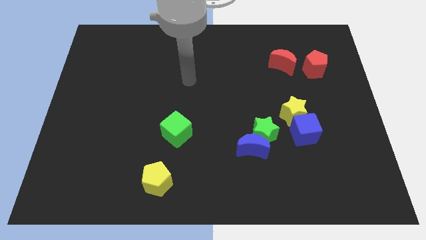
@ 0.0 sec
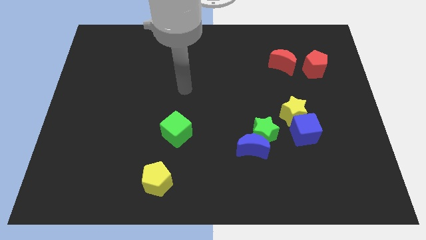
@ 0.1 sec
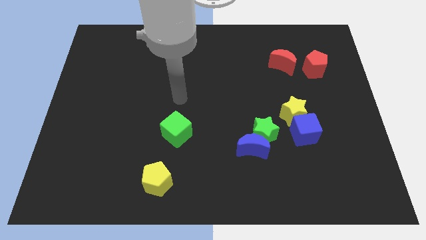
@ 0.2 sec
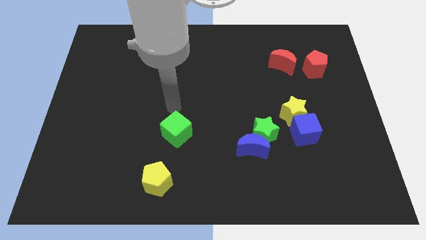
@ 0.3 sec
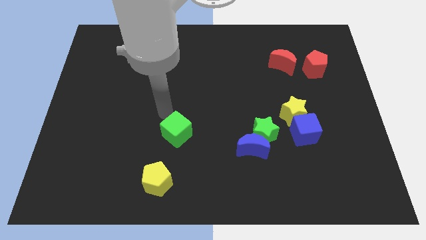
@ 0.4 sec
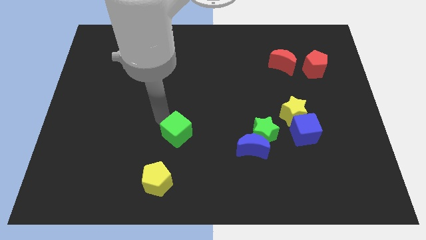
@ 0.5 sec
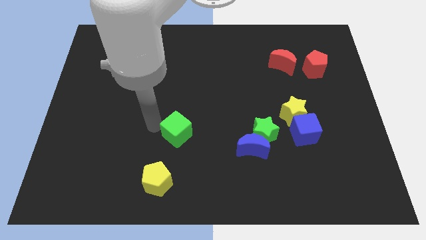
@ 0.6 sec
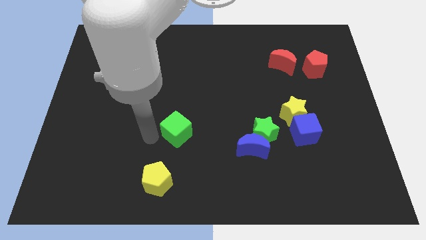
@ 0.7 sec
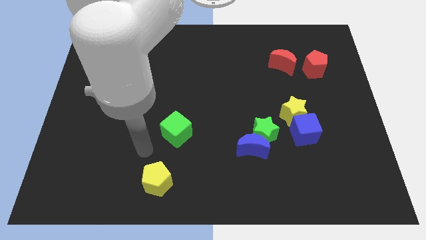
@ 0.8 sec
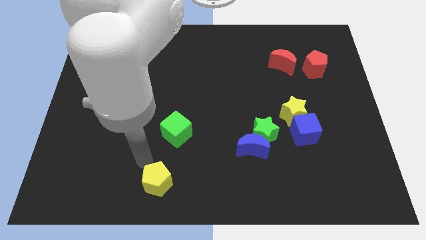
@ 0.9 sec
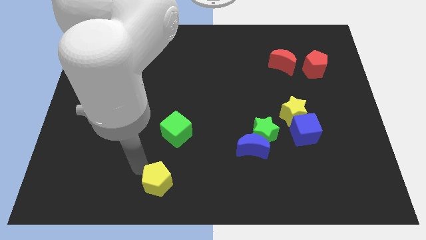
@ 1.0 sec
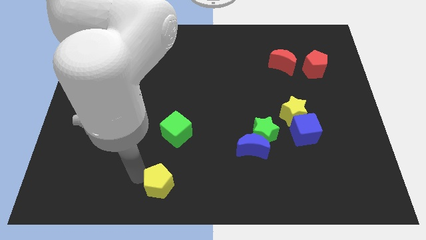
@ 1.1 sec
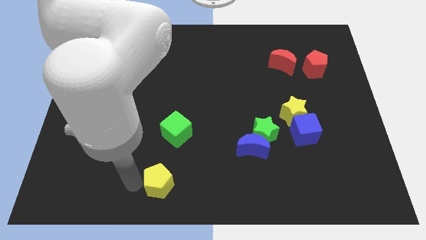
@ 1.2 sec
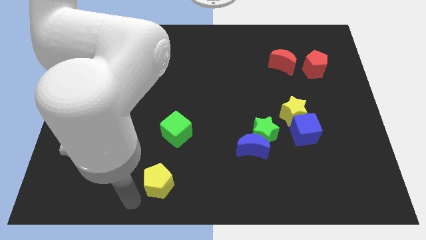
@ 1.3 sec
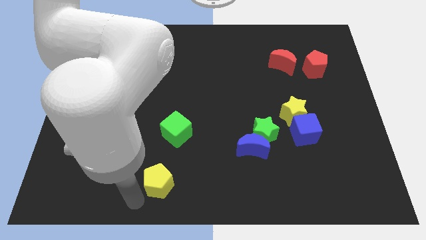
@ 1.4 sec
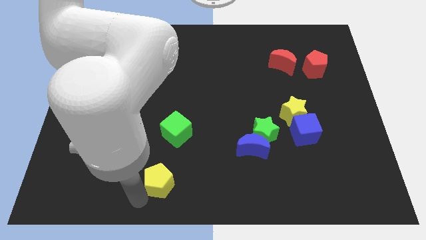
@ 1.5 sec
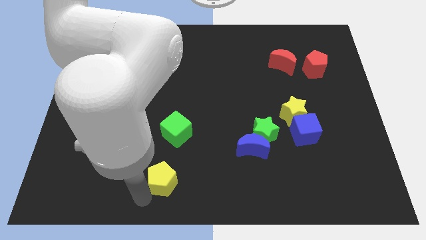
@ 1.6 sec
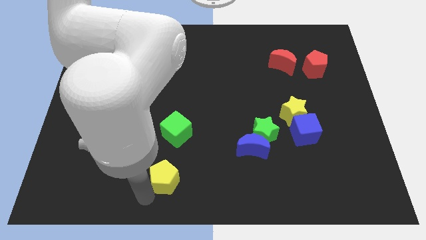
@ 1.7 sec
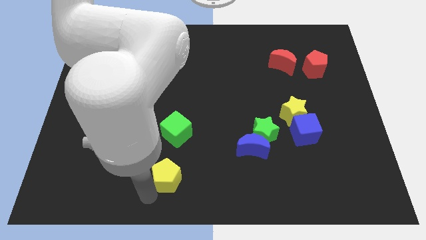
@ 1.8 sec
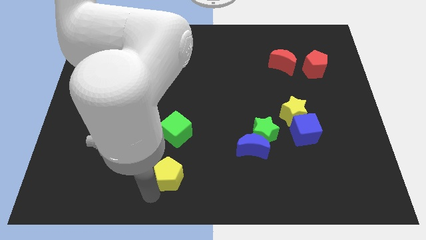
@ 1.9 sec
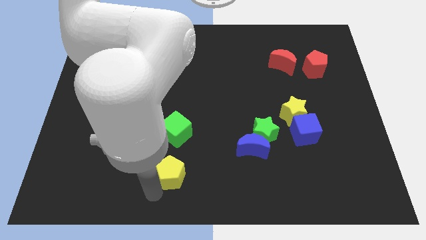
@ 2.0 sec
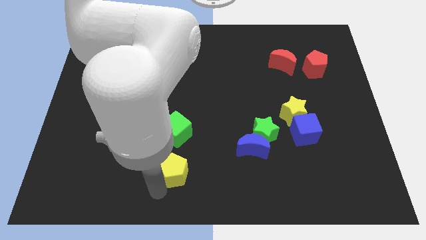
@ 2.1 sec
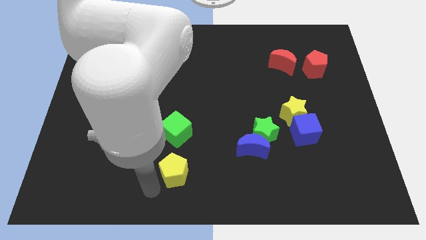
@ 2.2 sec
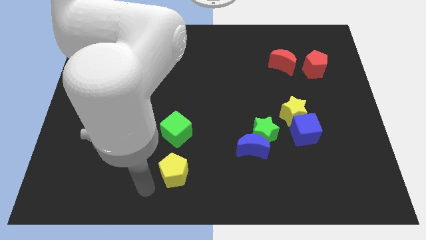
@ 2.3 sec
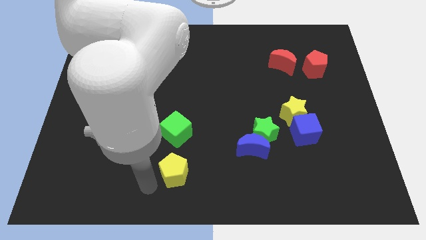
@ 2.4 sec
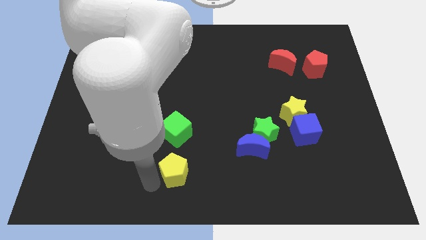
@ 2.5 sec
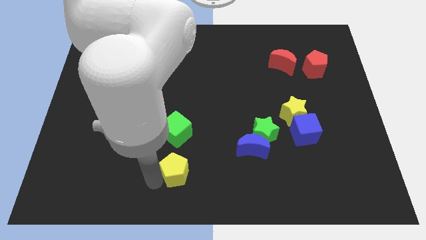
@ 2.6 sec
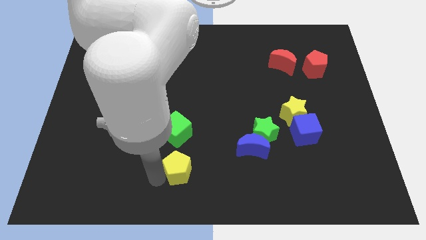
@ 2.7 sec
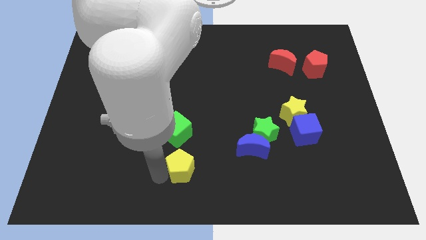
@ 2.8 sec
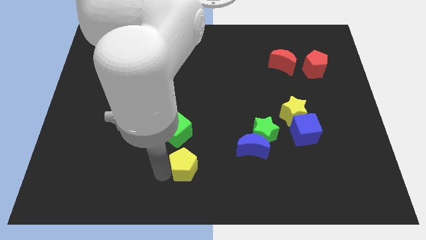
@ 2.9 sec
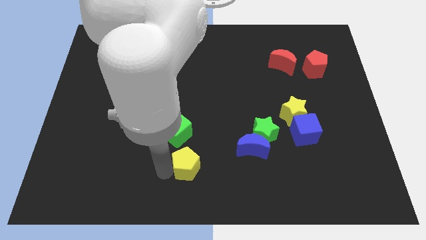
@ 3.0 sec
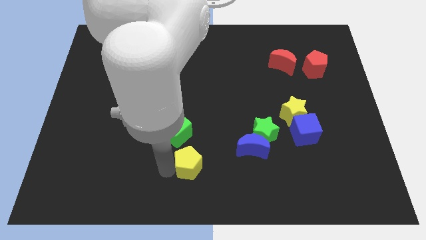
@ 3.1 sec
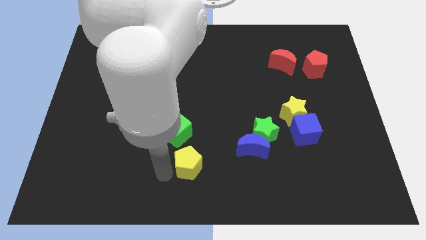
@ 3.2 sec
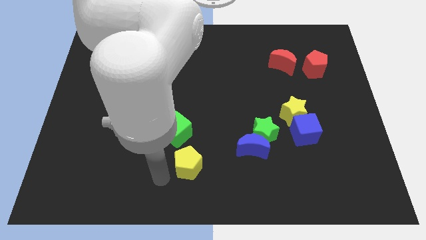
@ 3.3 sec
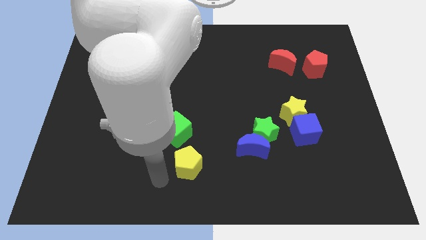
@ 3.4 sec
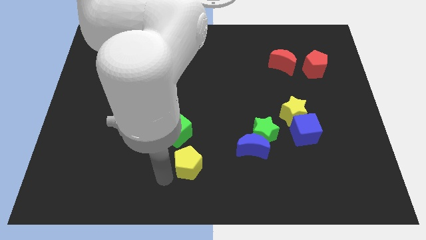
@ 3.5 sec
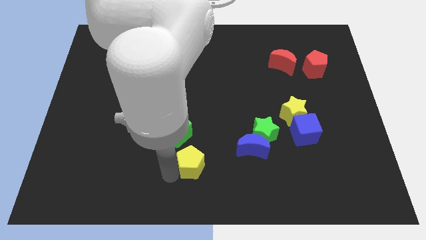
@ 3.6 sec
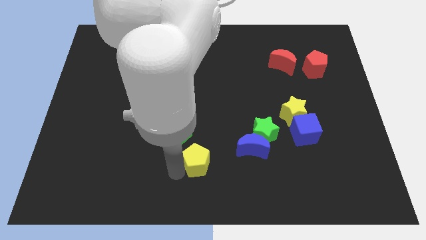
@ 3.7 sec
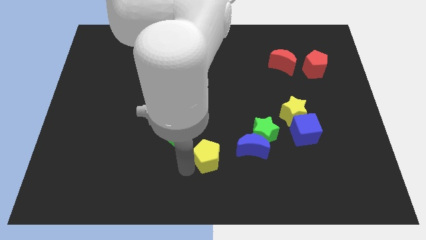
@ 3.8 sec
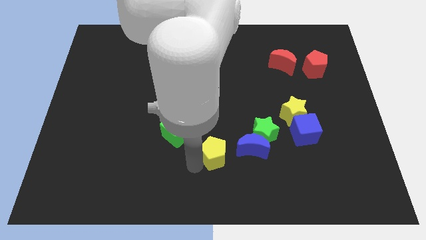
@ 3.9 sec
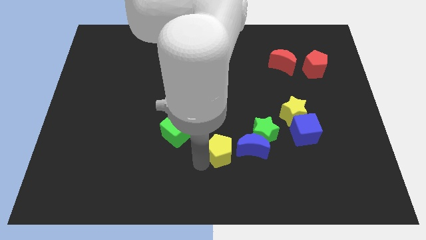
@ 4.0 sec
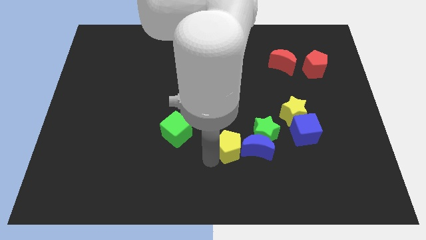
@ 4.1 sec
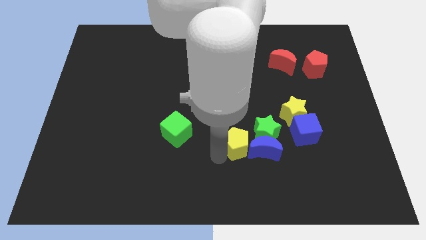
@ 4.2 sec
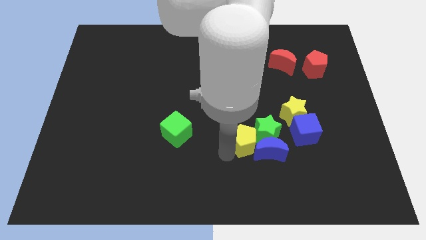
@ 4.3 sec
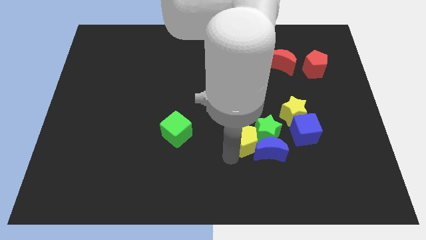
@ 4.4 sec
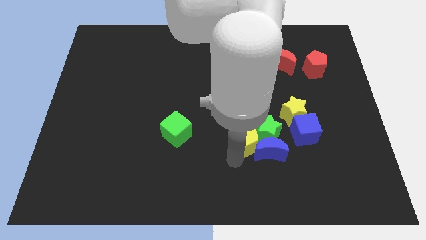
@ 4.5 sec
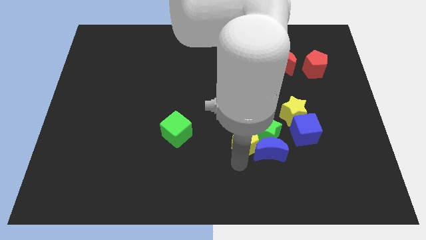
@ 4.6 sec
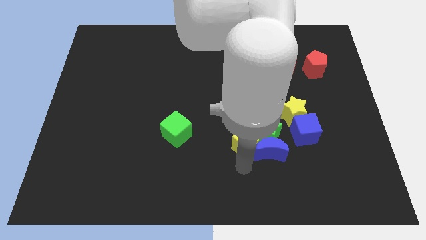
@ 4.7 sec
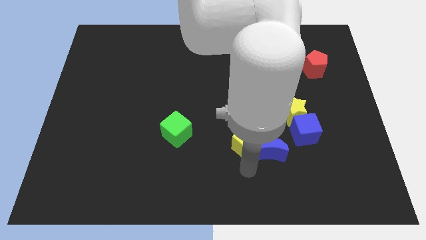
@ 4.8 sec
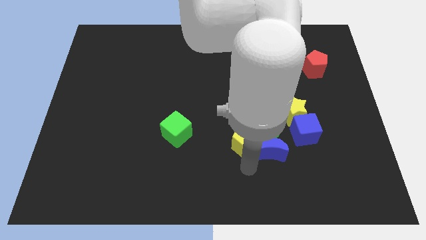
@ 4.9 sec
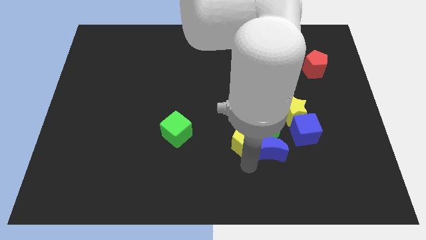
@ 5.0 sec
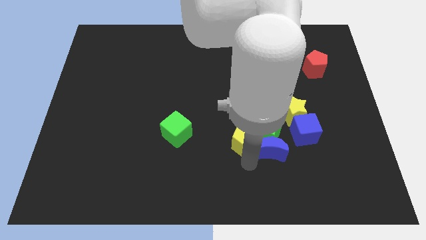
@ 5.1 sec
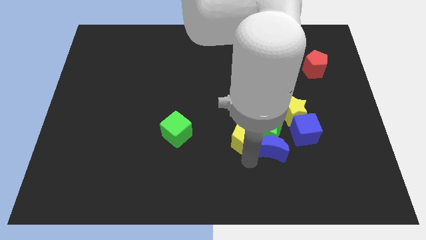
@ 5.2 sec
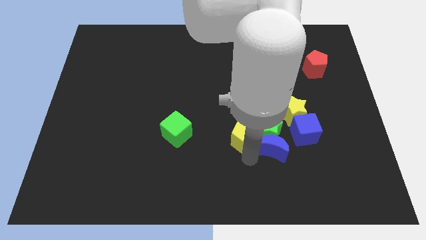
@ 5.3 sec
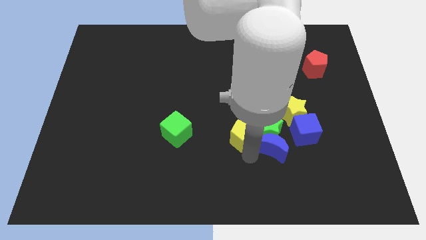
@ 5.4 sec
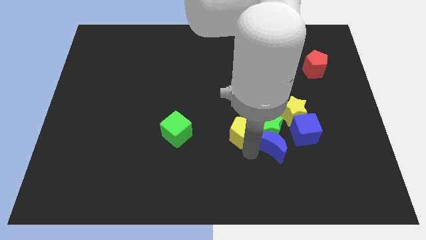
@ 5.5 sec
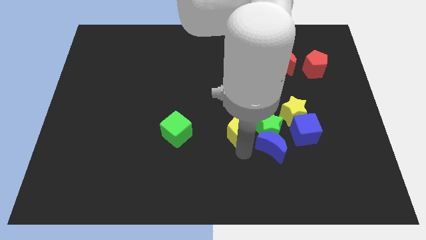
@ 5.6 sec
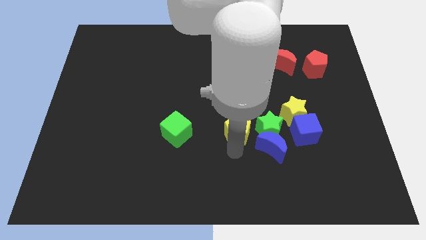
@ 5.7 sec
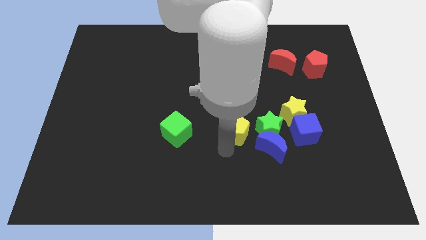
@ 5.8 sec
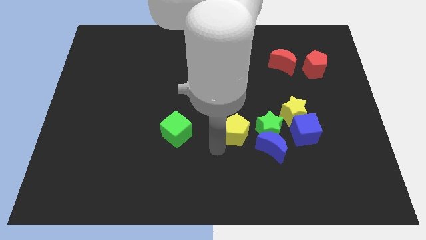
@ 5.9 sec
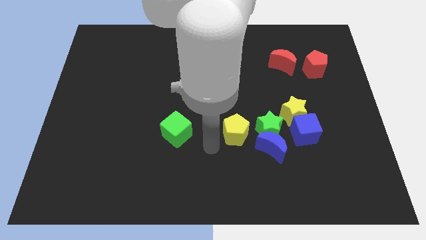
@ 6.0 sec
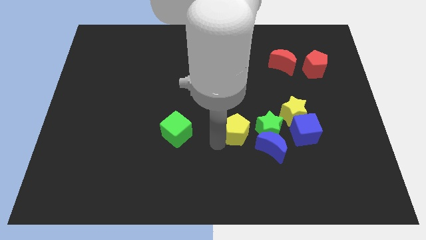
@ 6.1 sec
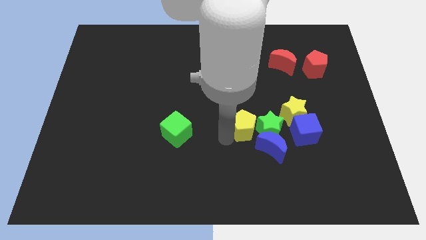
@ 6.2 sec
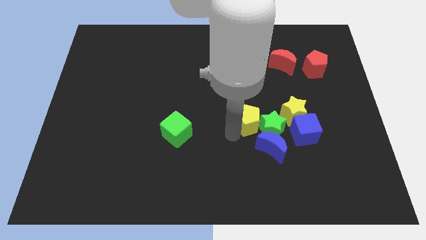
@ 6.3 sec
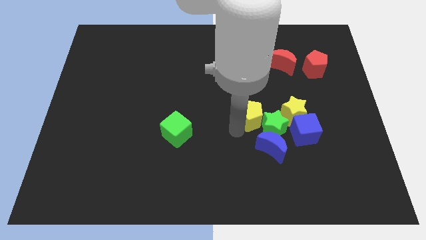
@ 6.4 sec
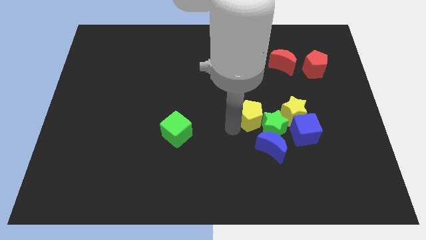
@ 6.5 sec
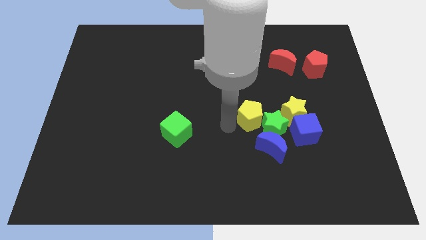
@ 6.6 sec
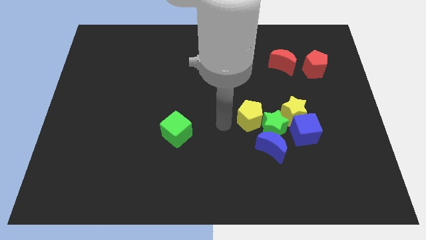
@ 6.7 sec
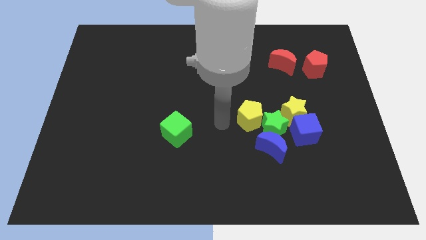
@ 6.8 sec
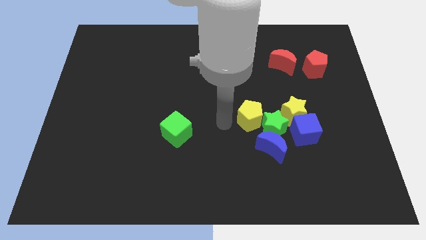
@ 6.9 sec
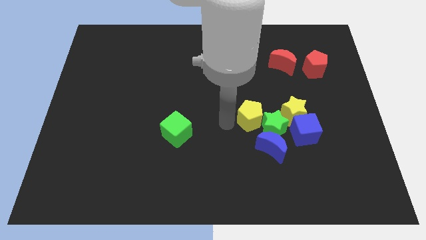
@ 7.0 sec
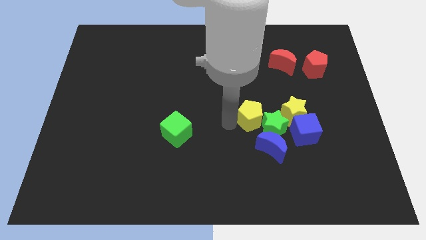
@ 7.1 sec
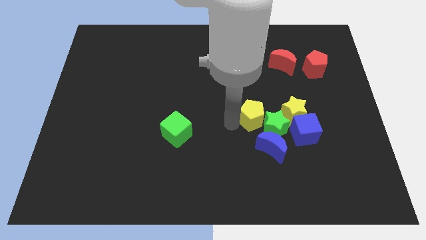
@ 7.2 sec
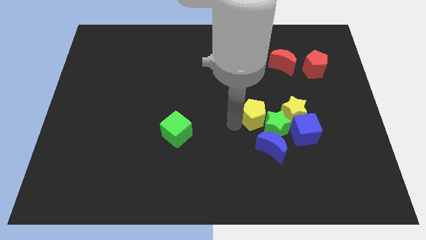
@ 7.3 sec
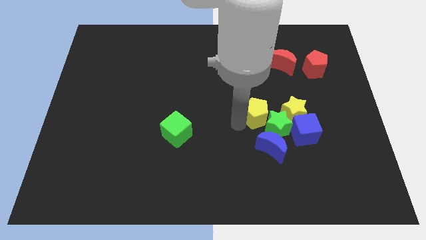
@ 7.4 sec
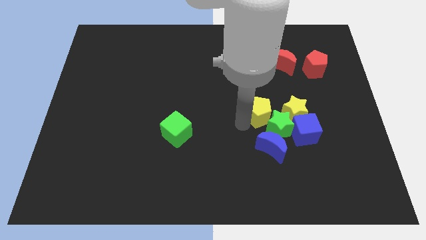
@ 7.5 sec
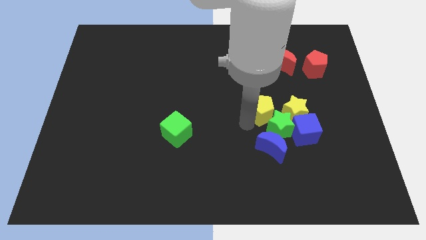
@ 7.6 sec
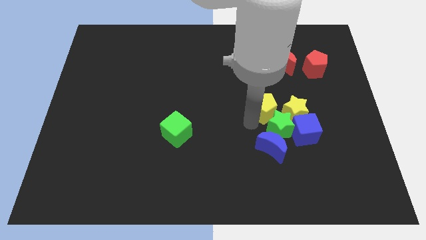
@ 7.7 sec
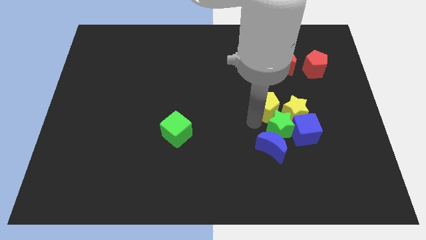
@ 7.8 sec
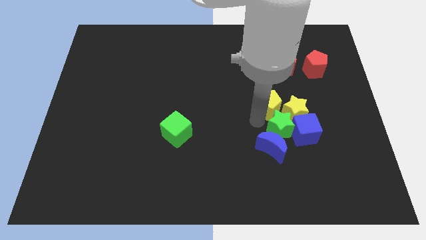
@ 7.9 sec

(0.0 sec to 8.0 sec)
put the yellow pentagon close to the yellow star
